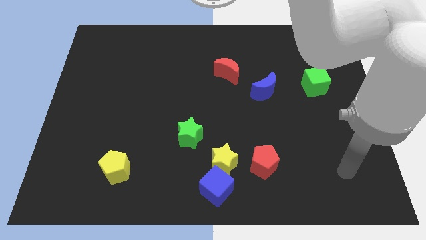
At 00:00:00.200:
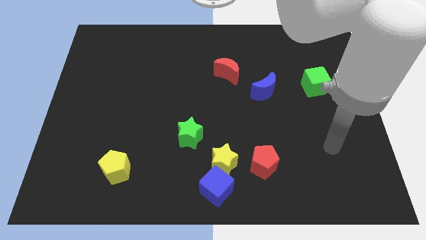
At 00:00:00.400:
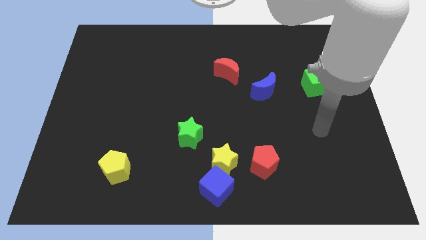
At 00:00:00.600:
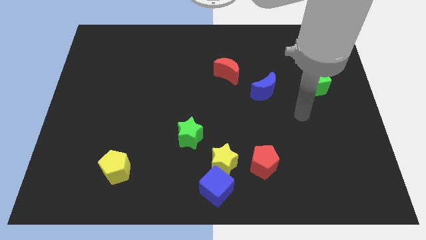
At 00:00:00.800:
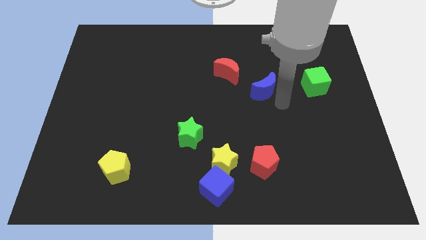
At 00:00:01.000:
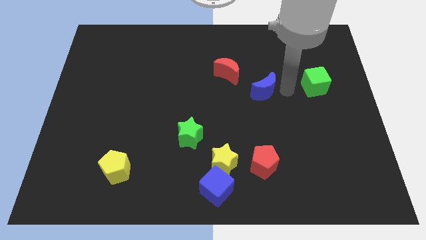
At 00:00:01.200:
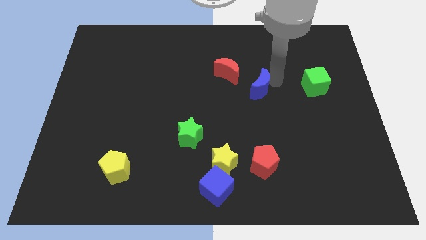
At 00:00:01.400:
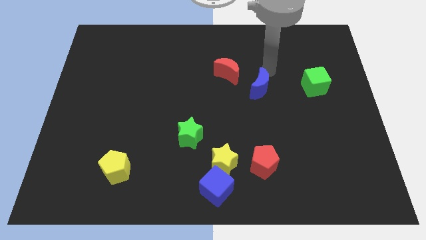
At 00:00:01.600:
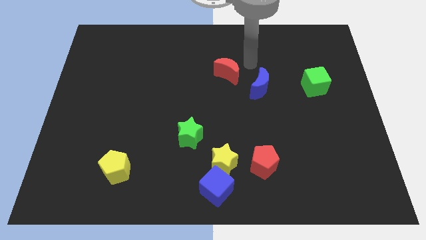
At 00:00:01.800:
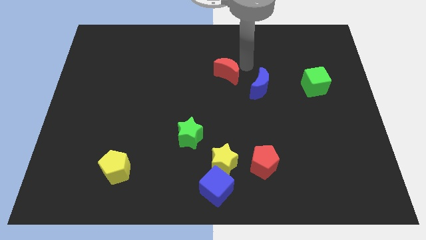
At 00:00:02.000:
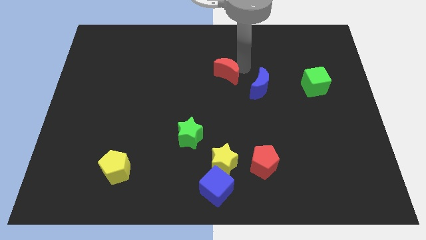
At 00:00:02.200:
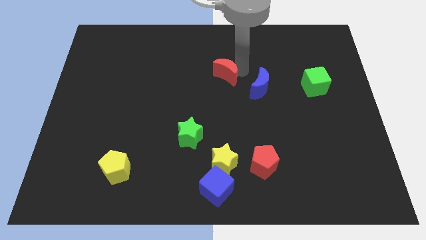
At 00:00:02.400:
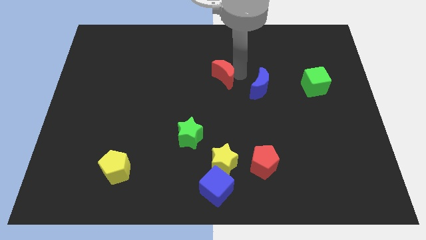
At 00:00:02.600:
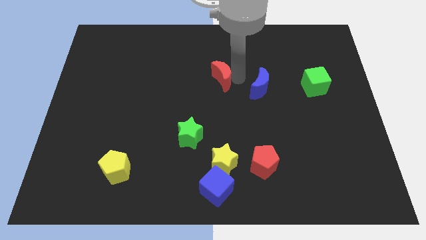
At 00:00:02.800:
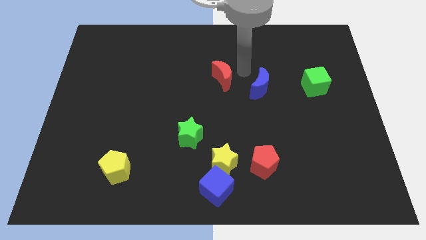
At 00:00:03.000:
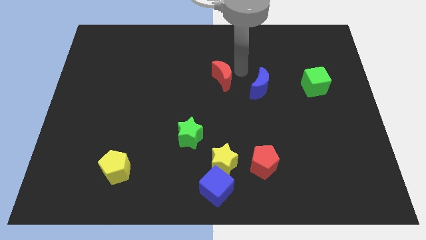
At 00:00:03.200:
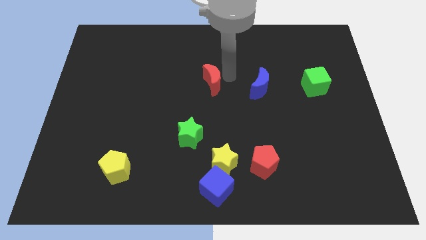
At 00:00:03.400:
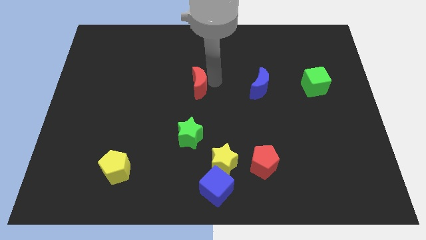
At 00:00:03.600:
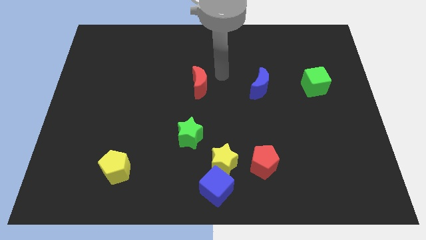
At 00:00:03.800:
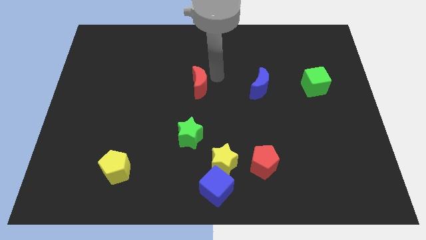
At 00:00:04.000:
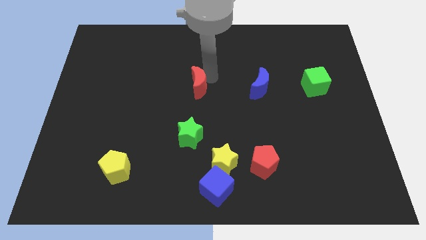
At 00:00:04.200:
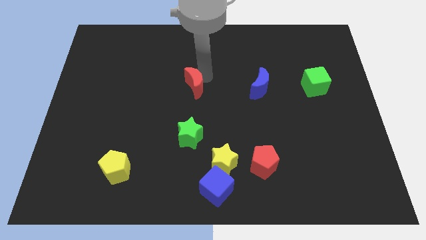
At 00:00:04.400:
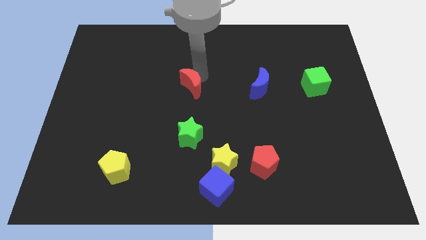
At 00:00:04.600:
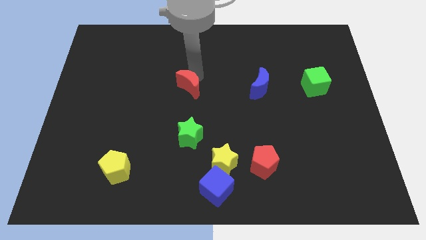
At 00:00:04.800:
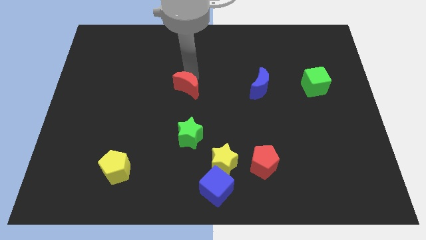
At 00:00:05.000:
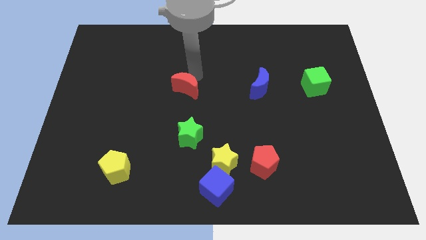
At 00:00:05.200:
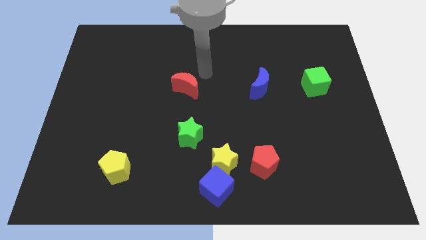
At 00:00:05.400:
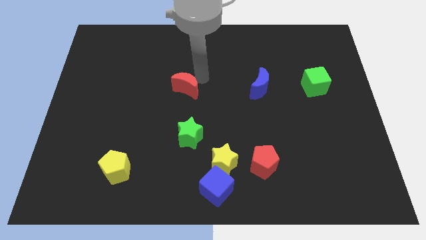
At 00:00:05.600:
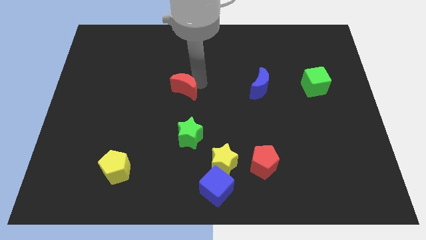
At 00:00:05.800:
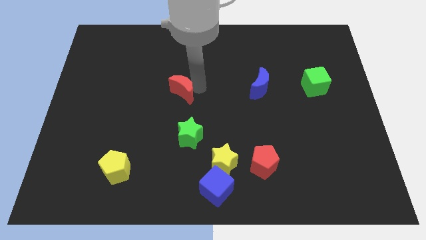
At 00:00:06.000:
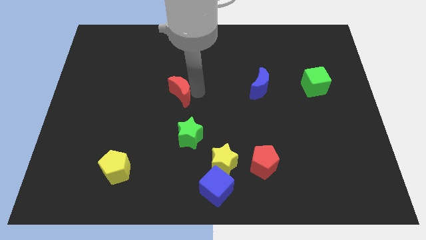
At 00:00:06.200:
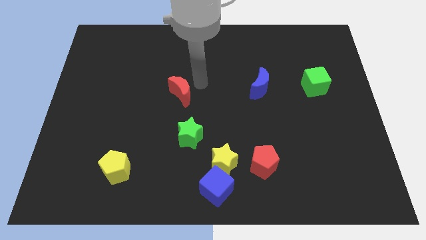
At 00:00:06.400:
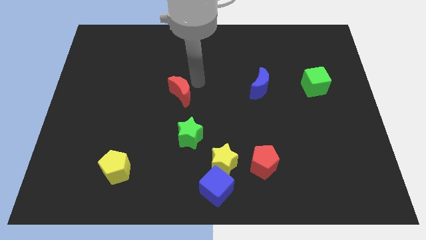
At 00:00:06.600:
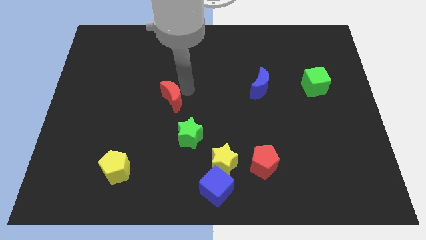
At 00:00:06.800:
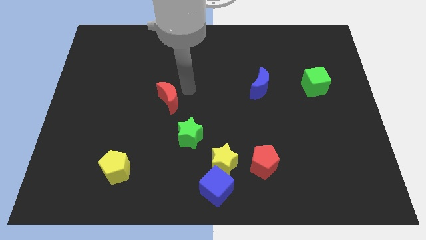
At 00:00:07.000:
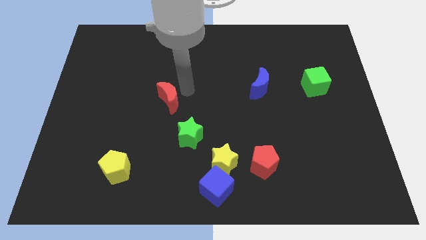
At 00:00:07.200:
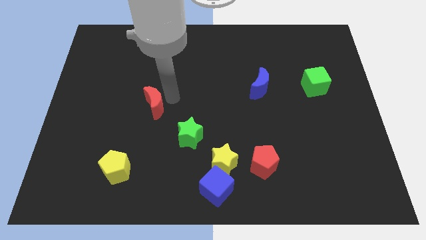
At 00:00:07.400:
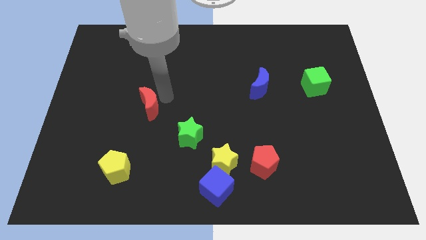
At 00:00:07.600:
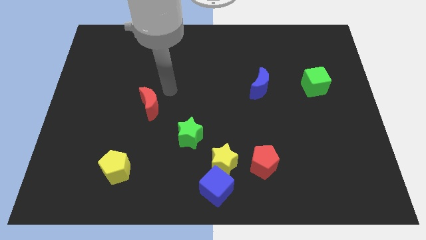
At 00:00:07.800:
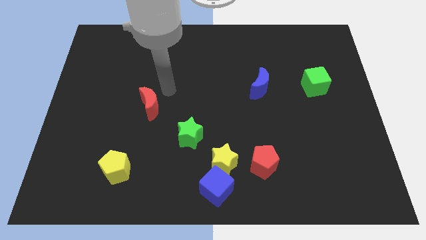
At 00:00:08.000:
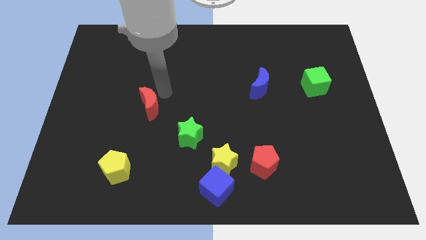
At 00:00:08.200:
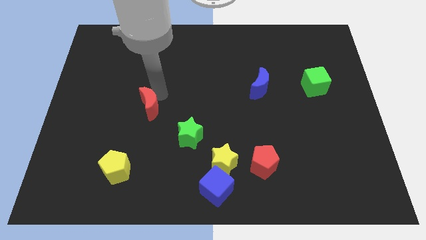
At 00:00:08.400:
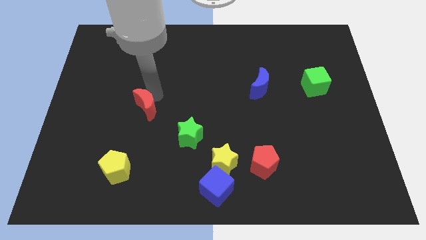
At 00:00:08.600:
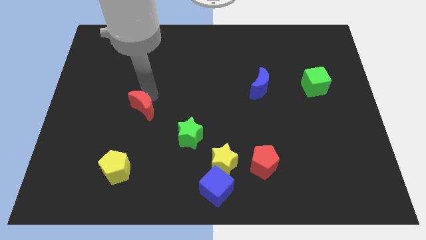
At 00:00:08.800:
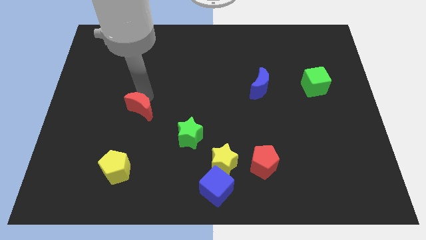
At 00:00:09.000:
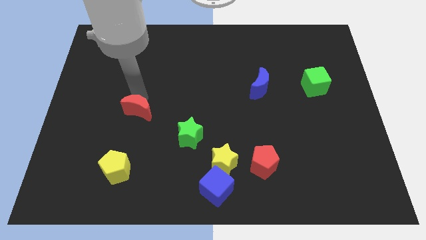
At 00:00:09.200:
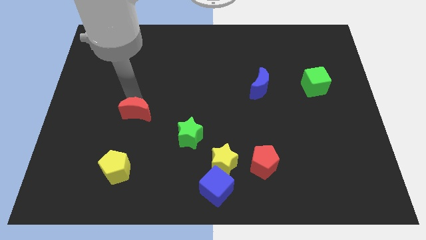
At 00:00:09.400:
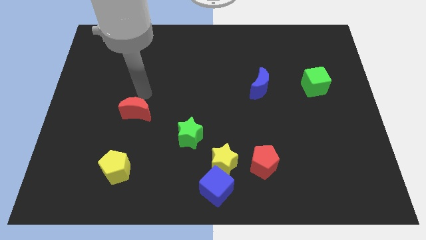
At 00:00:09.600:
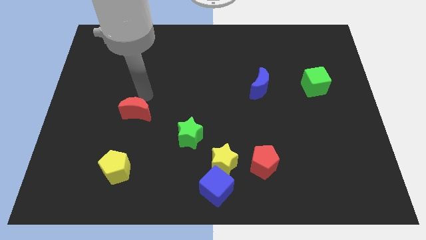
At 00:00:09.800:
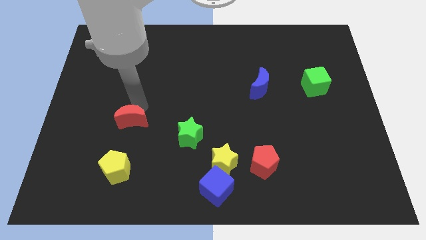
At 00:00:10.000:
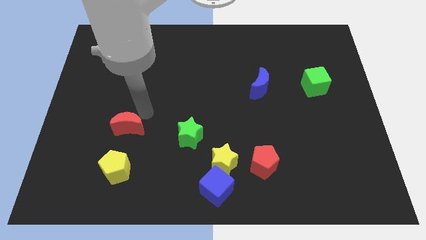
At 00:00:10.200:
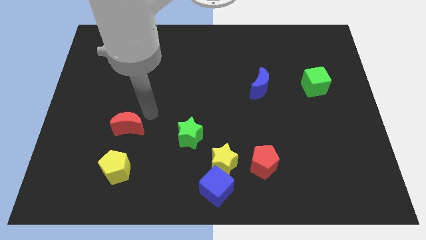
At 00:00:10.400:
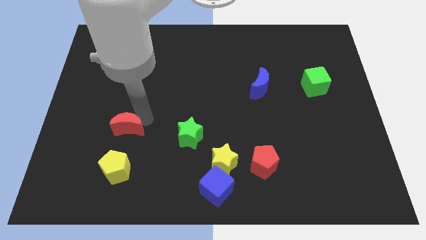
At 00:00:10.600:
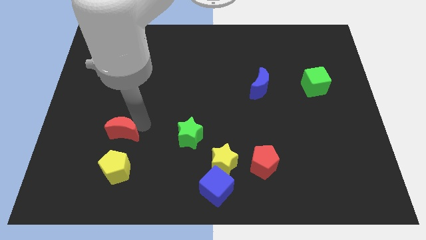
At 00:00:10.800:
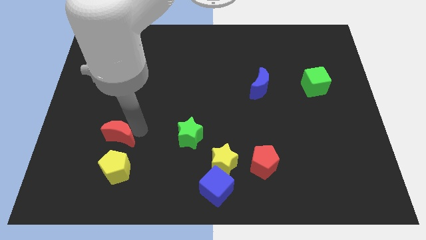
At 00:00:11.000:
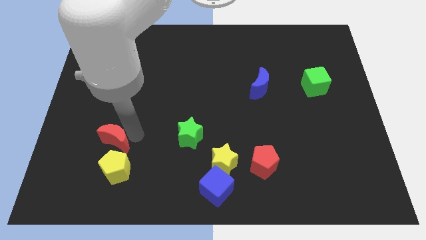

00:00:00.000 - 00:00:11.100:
push the red moon diagonally up and to the left of the yellow pentagon
